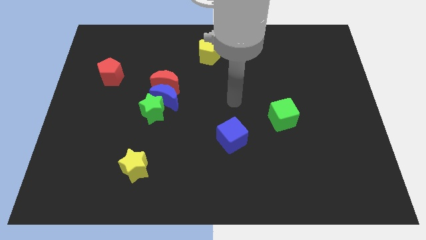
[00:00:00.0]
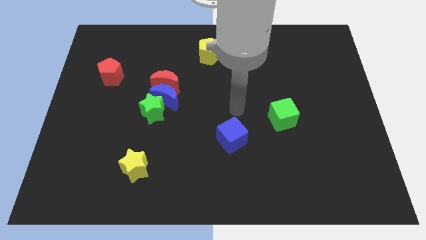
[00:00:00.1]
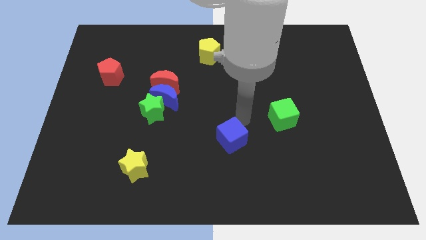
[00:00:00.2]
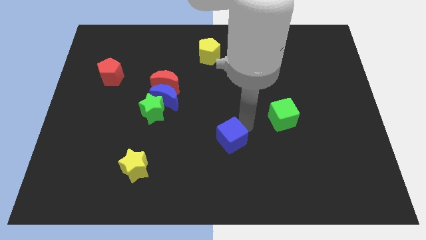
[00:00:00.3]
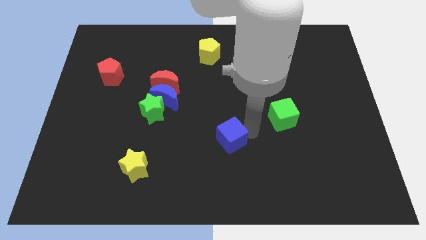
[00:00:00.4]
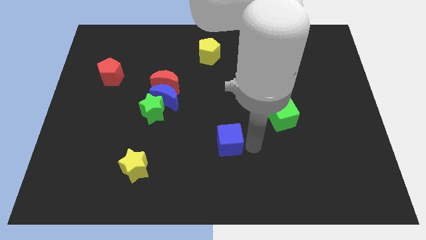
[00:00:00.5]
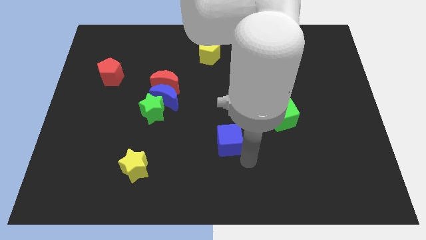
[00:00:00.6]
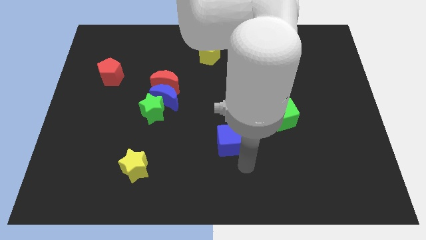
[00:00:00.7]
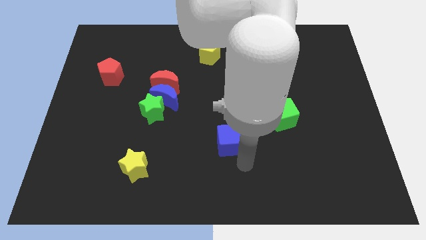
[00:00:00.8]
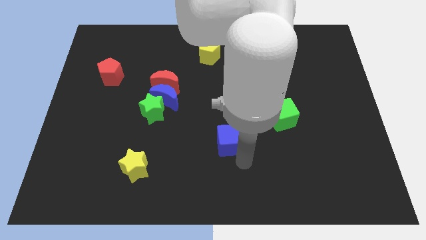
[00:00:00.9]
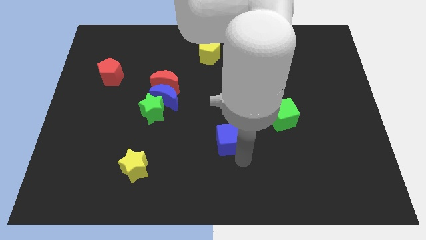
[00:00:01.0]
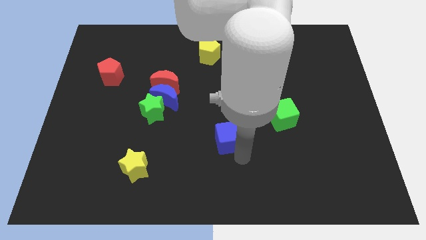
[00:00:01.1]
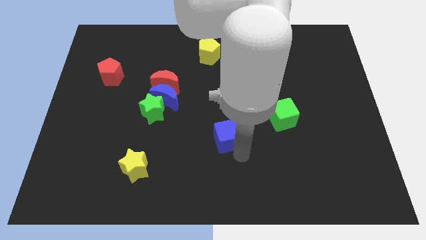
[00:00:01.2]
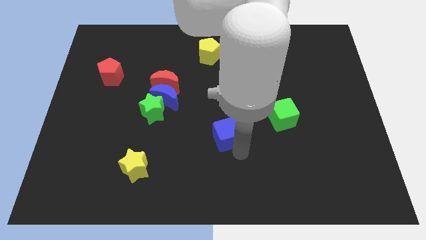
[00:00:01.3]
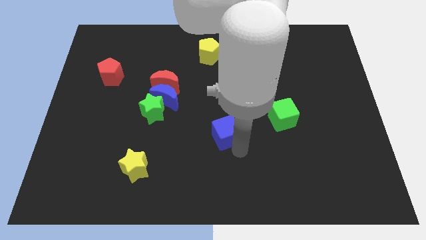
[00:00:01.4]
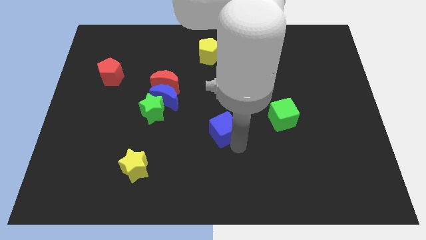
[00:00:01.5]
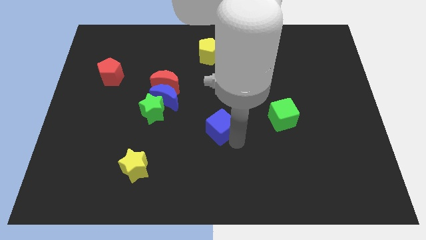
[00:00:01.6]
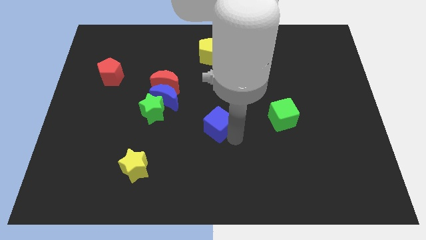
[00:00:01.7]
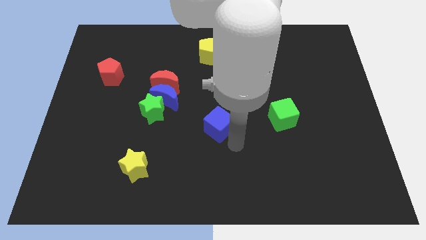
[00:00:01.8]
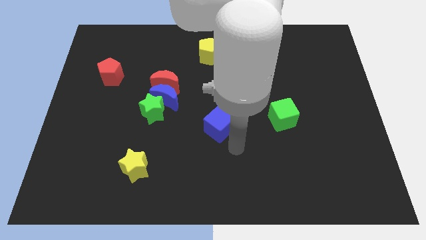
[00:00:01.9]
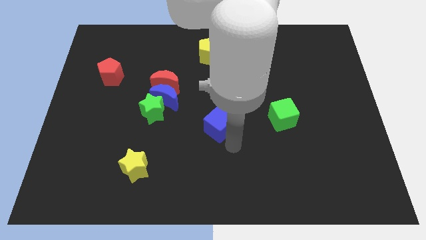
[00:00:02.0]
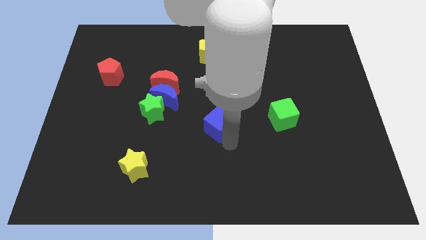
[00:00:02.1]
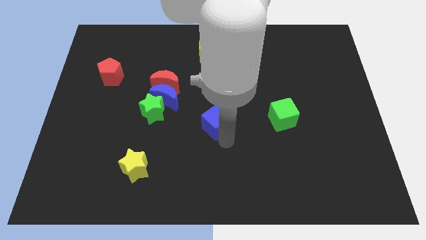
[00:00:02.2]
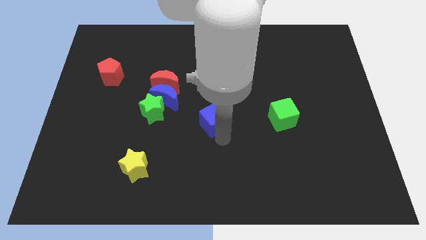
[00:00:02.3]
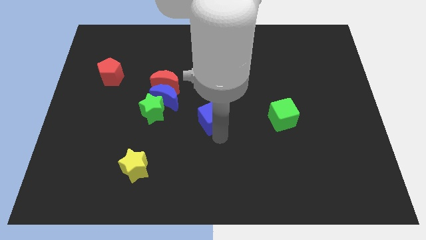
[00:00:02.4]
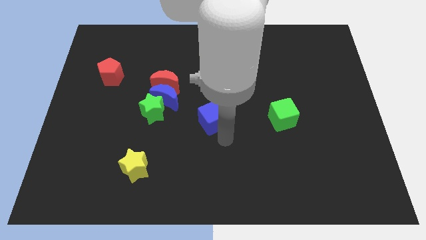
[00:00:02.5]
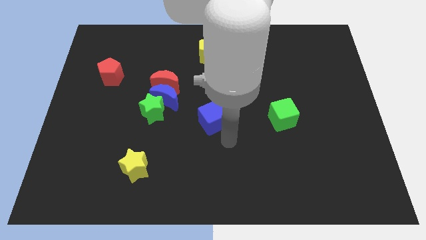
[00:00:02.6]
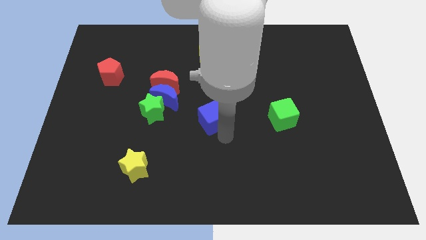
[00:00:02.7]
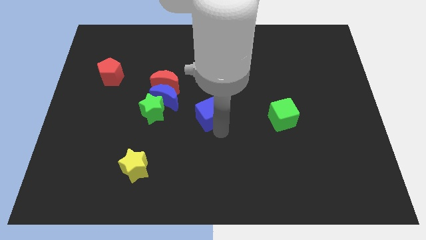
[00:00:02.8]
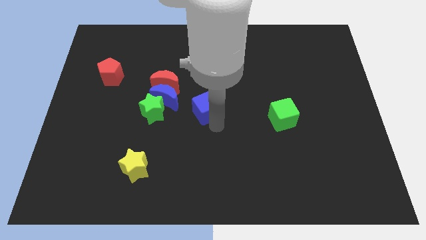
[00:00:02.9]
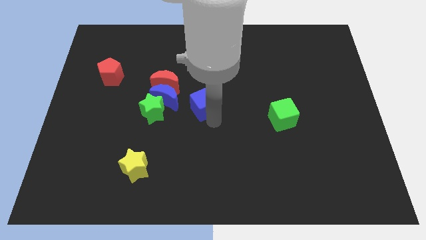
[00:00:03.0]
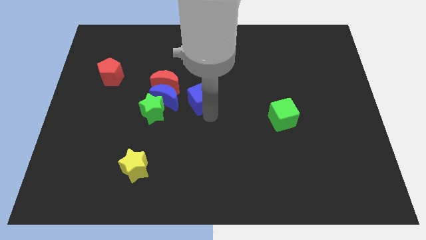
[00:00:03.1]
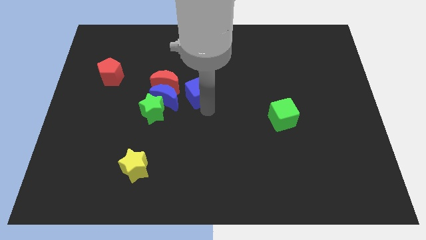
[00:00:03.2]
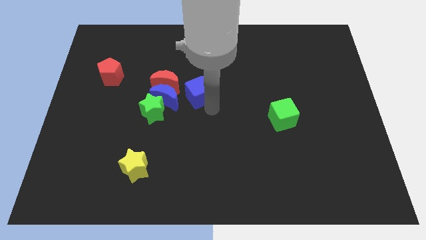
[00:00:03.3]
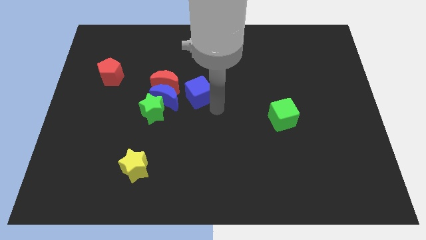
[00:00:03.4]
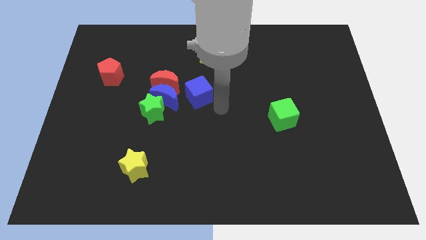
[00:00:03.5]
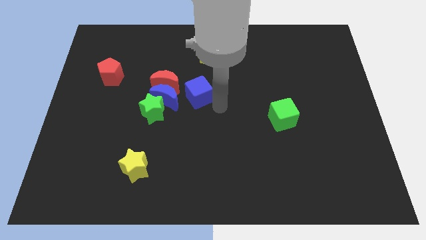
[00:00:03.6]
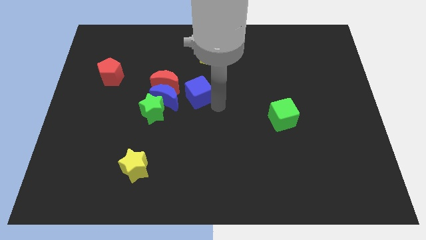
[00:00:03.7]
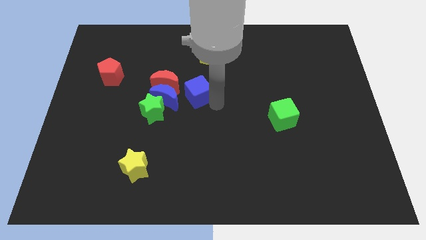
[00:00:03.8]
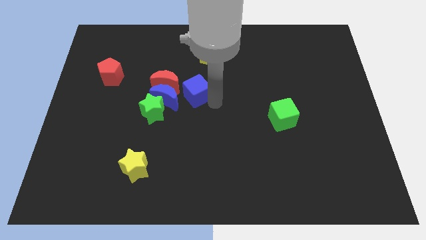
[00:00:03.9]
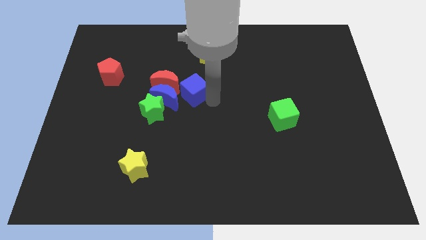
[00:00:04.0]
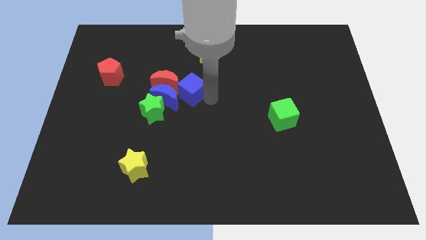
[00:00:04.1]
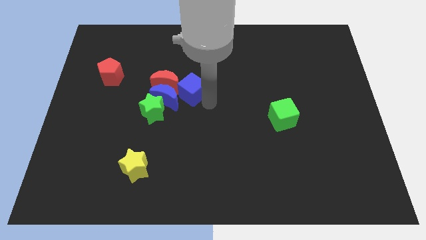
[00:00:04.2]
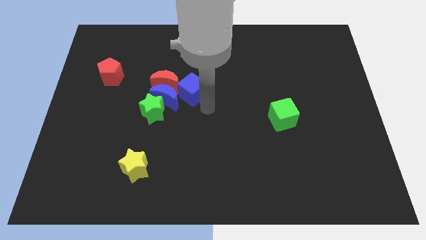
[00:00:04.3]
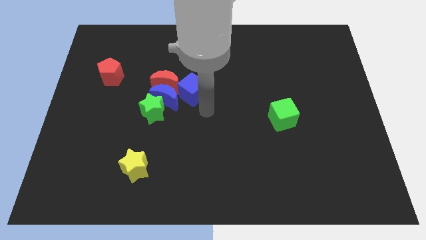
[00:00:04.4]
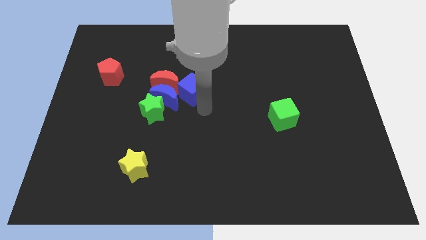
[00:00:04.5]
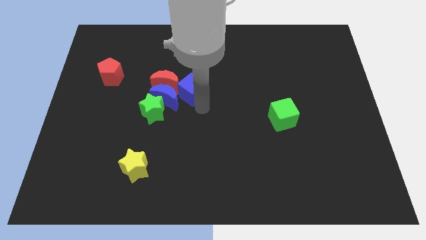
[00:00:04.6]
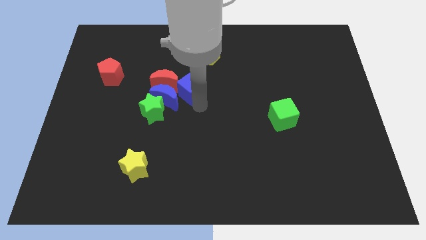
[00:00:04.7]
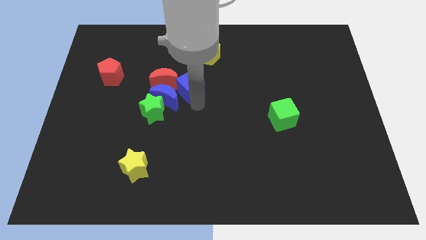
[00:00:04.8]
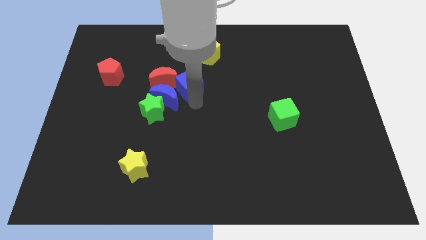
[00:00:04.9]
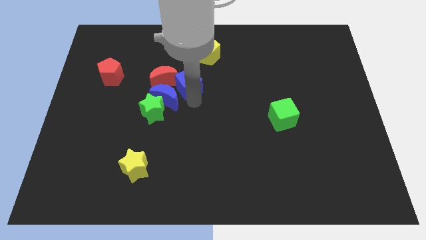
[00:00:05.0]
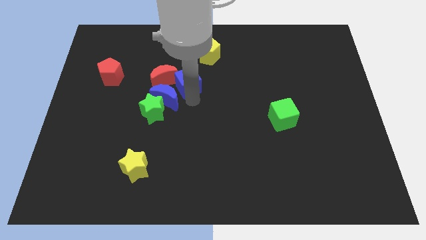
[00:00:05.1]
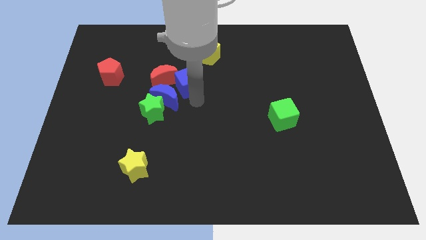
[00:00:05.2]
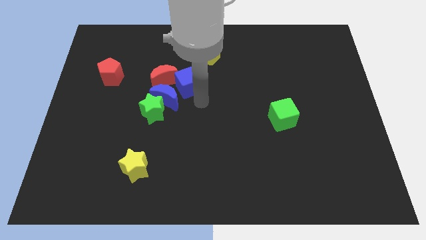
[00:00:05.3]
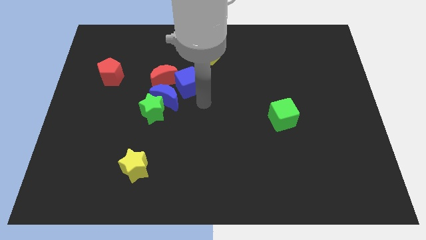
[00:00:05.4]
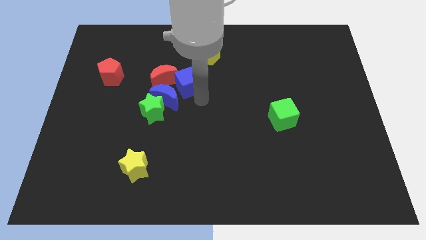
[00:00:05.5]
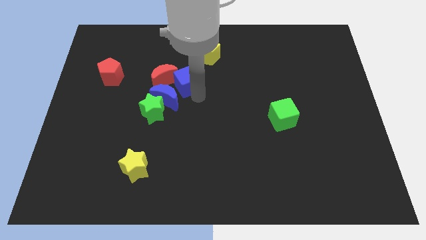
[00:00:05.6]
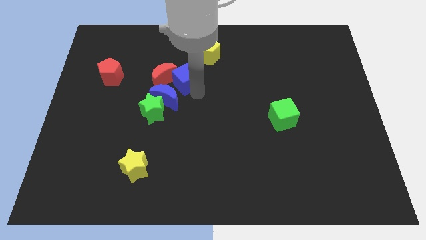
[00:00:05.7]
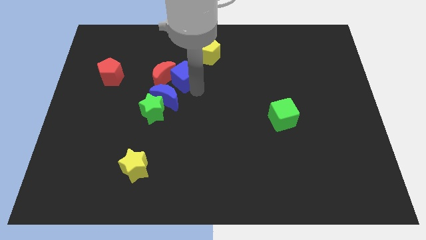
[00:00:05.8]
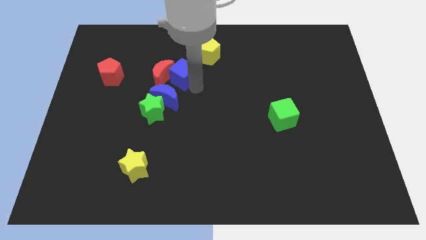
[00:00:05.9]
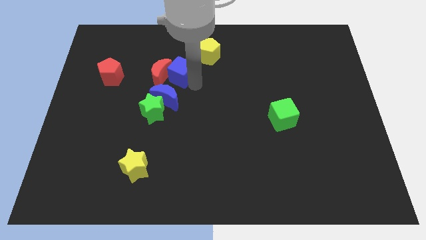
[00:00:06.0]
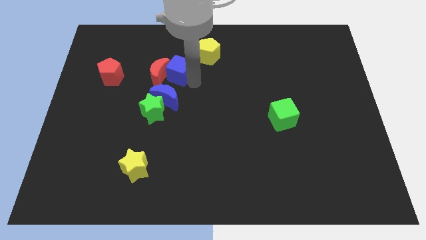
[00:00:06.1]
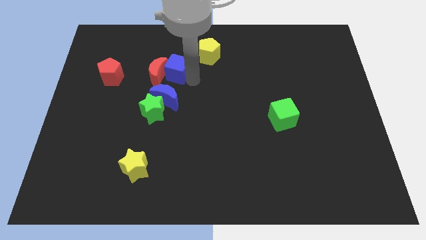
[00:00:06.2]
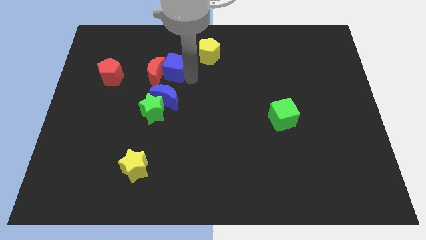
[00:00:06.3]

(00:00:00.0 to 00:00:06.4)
put the blue cube to the right of the red pentagon
